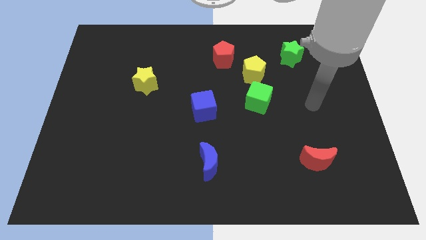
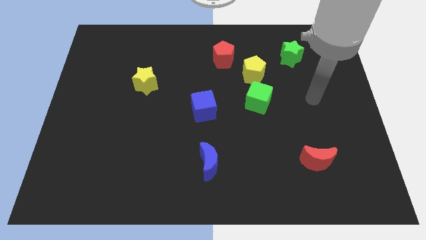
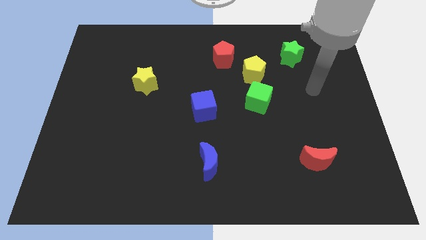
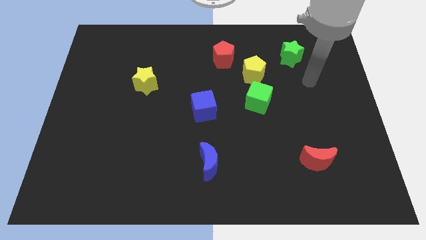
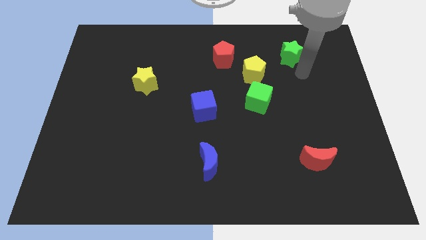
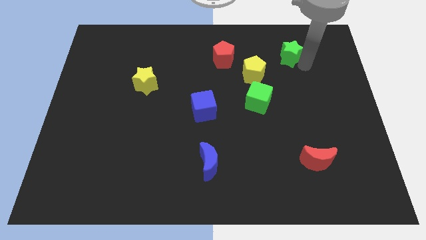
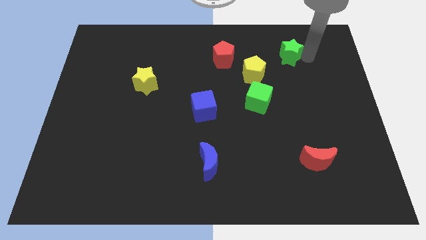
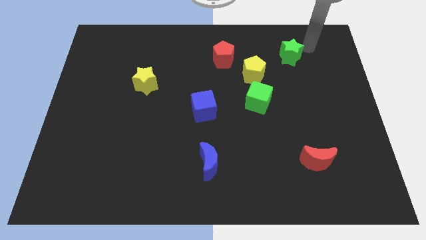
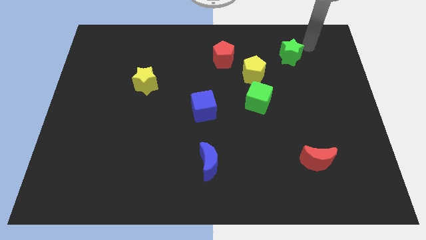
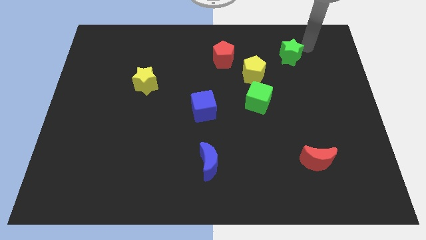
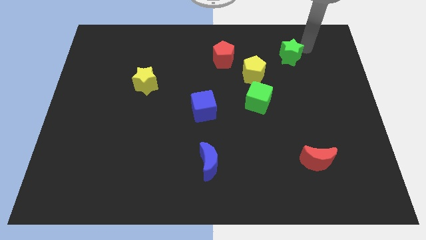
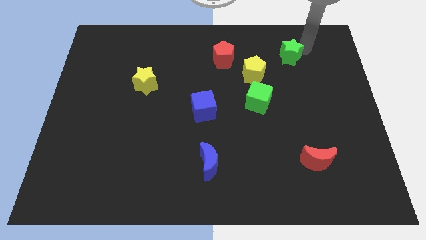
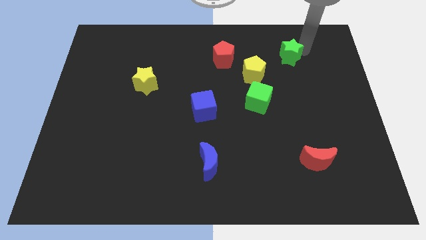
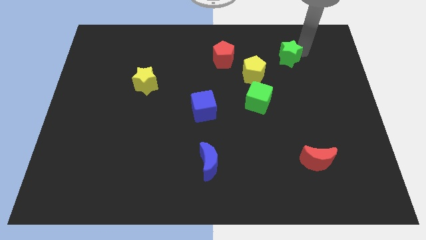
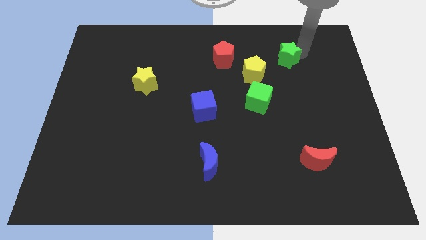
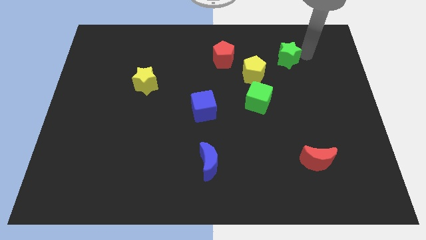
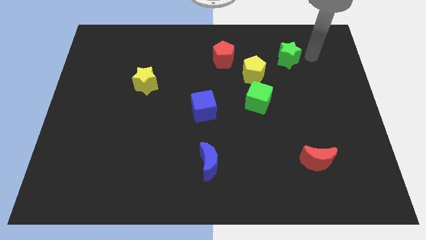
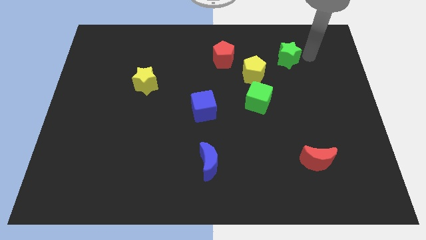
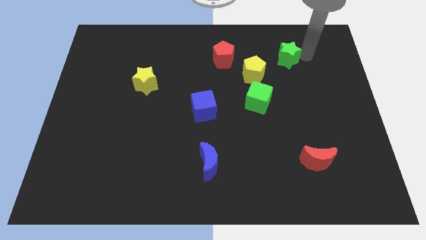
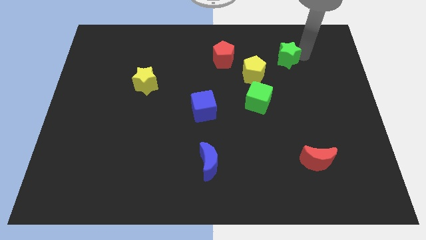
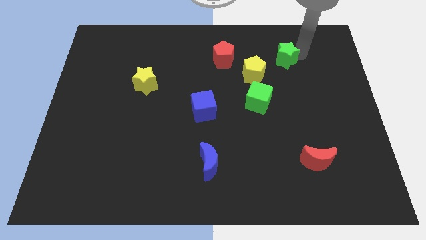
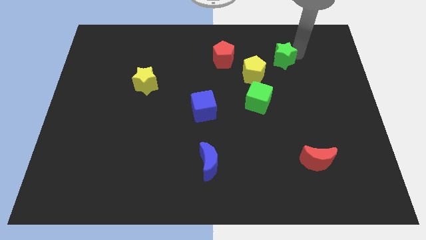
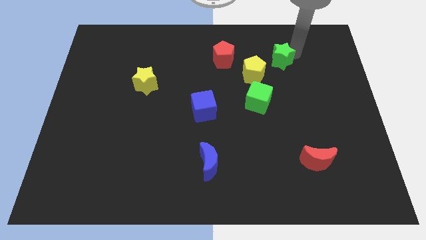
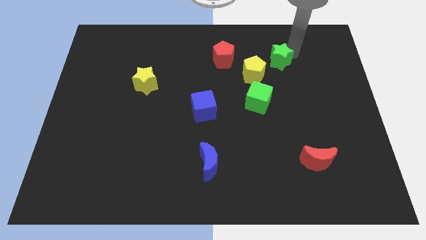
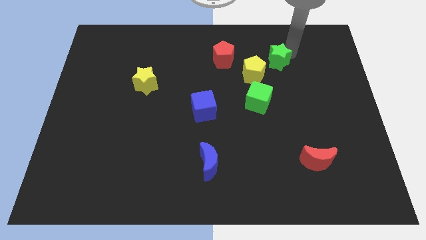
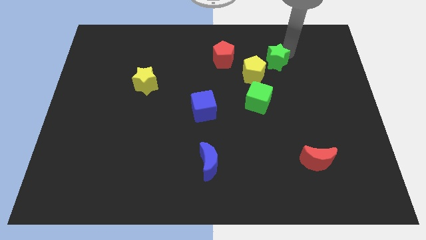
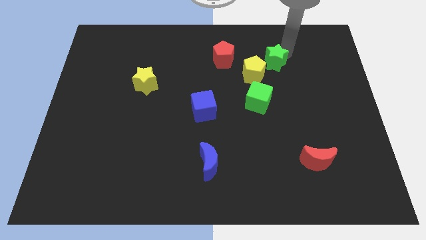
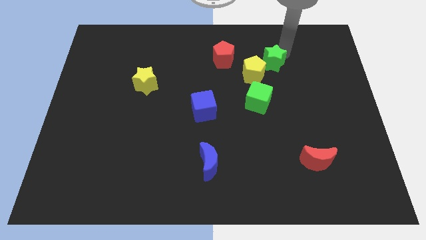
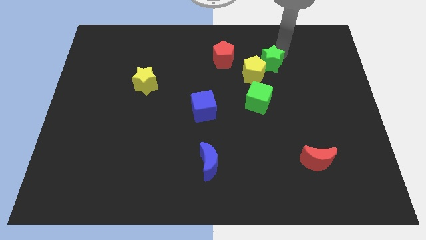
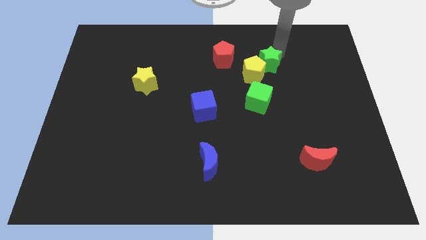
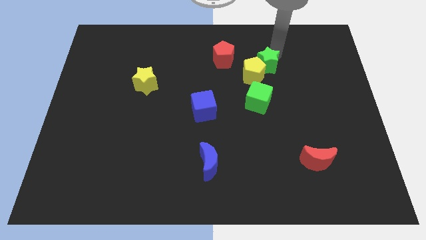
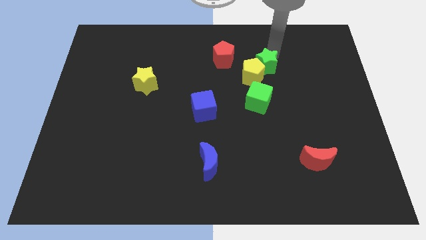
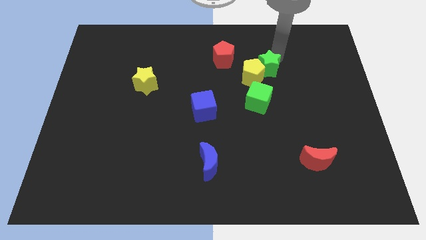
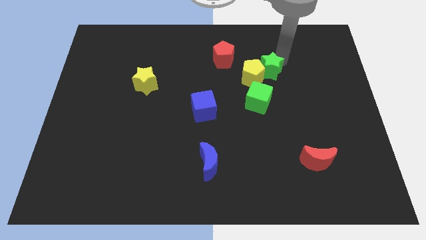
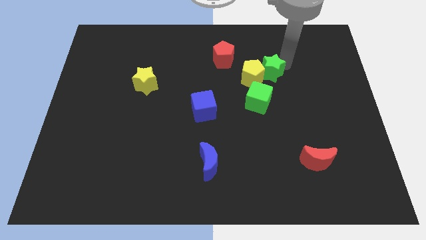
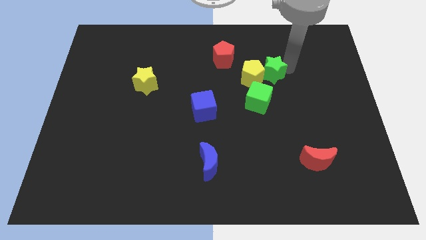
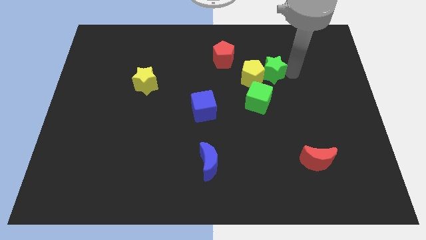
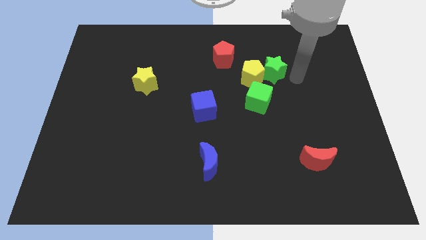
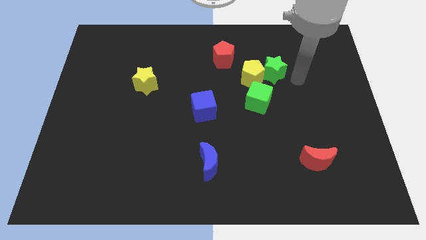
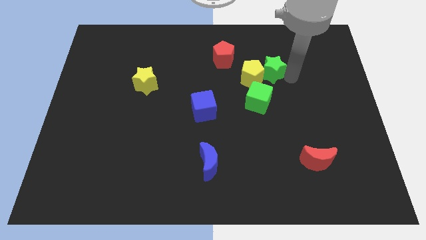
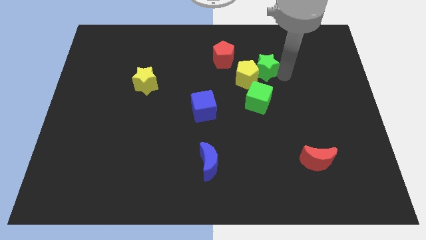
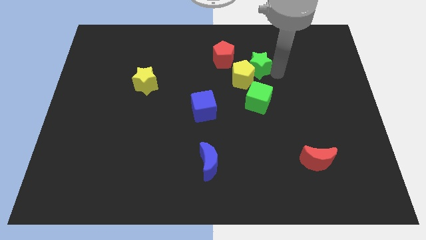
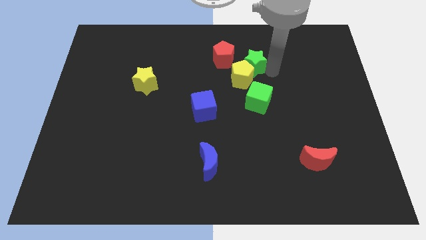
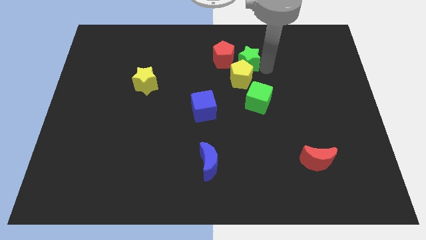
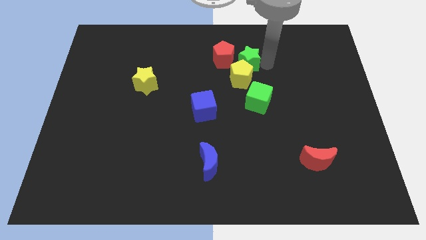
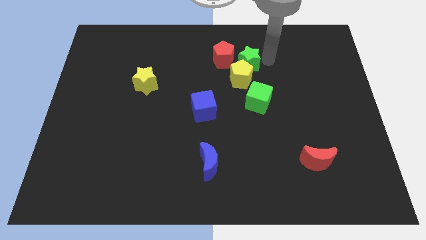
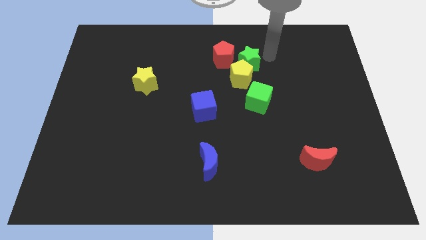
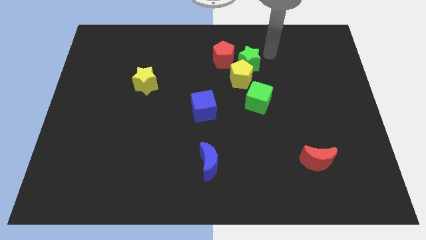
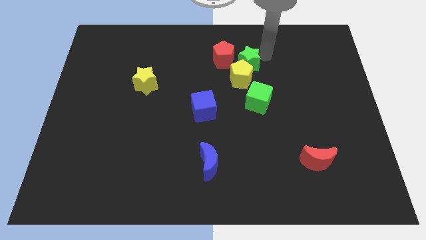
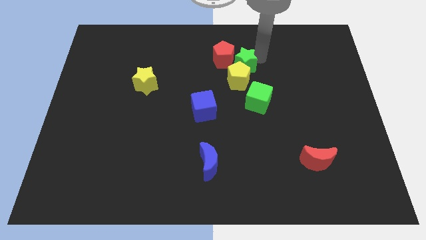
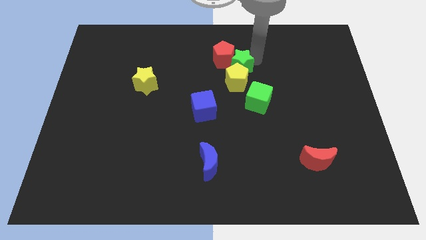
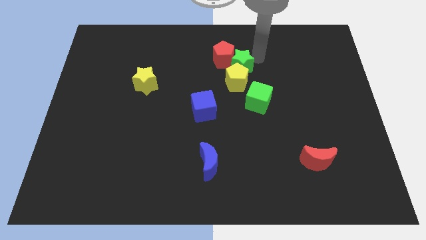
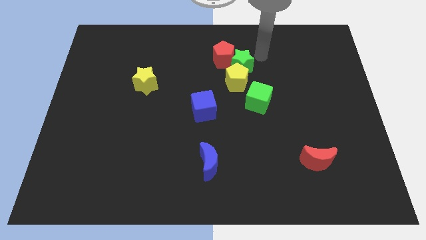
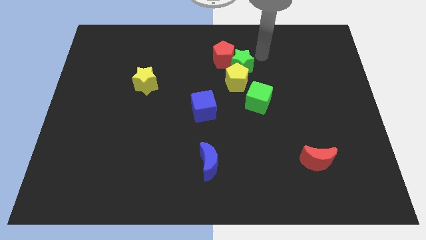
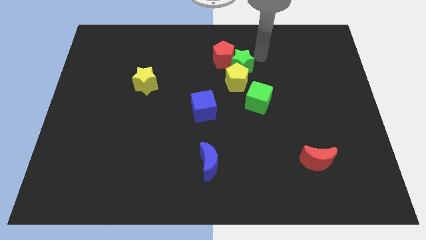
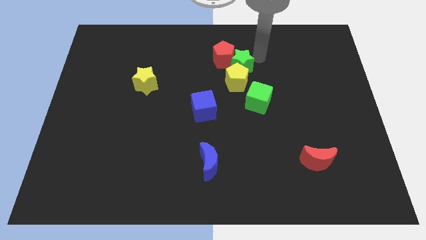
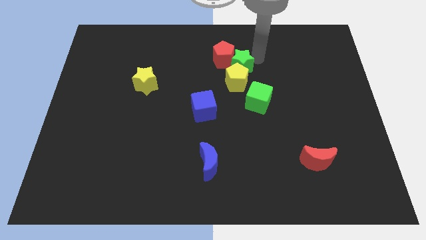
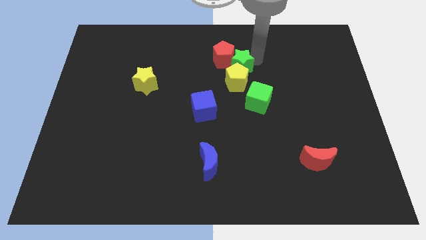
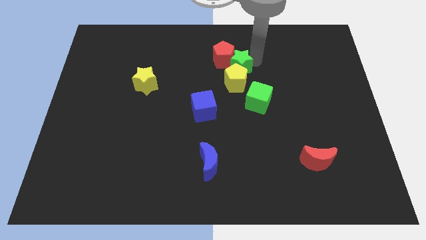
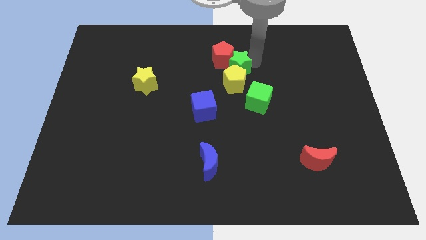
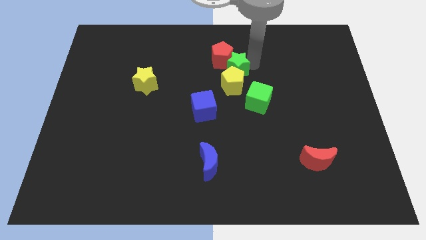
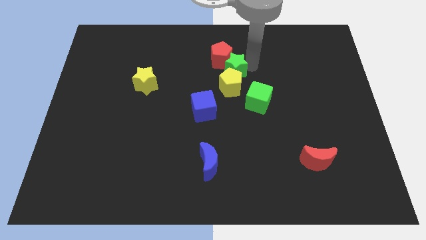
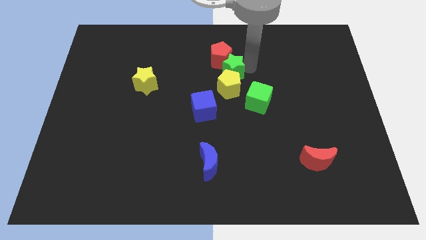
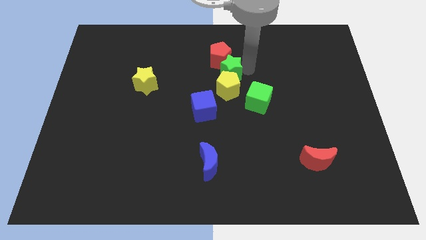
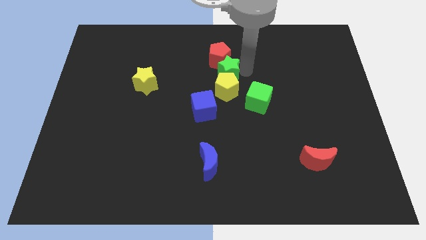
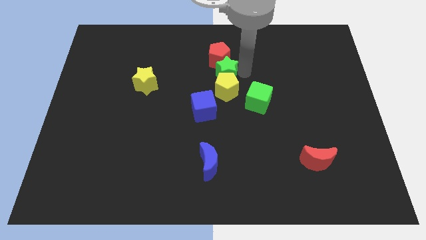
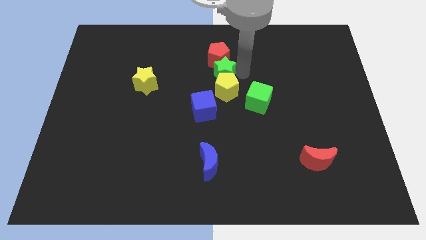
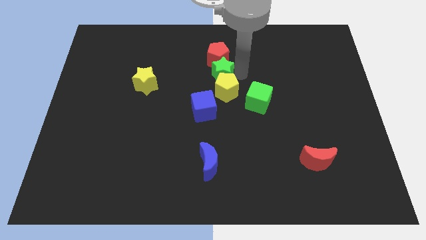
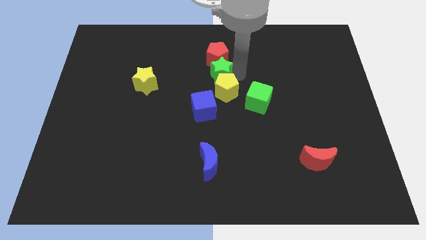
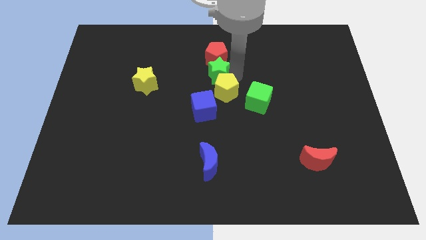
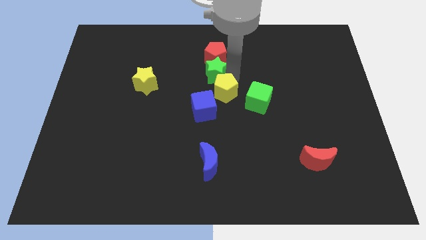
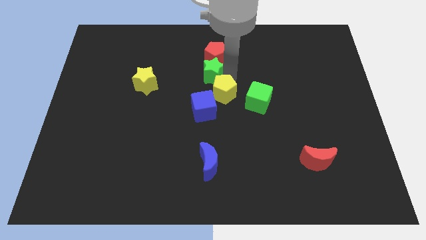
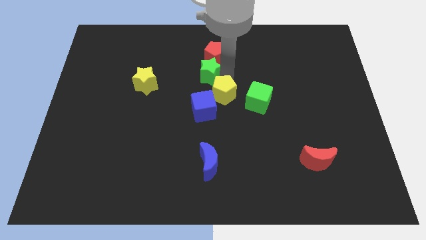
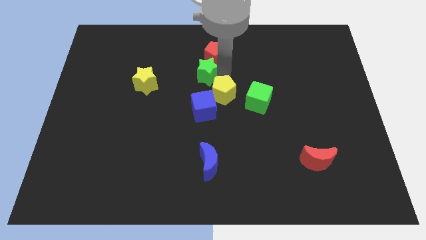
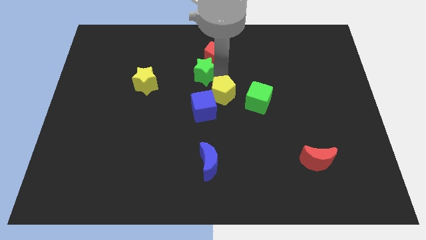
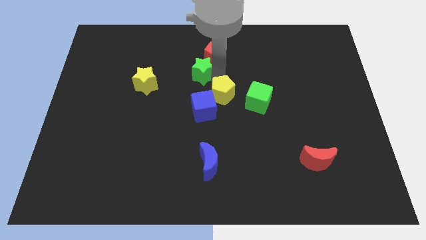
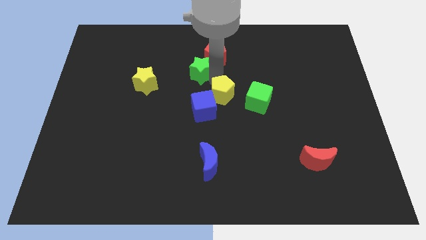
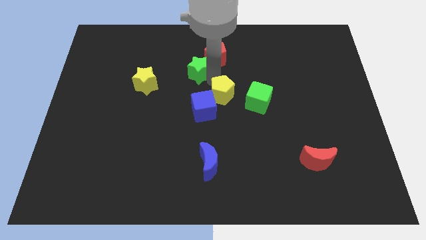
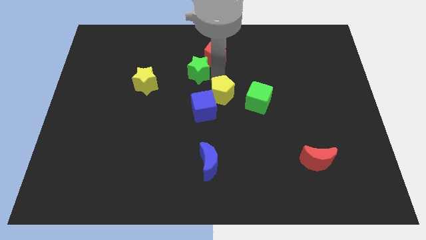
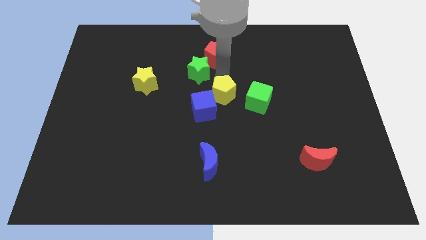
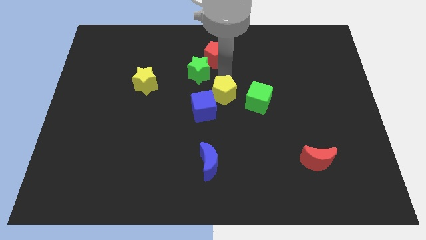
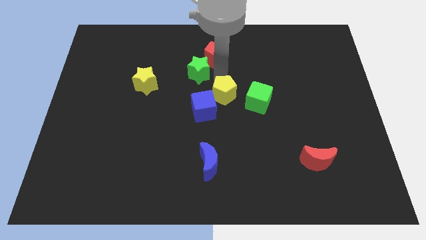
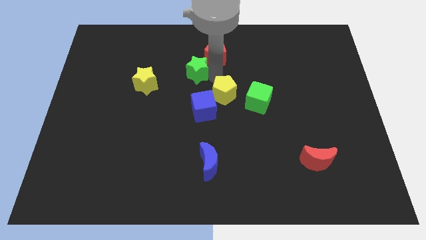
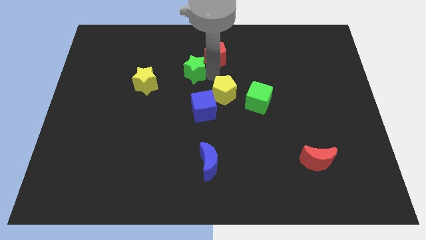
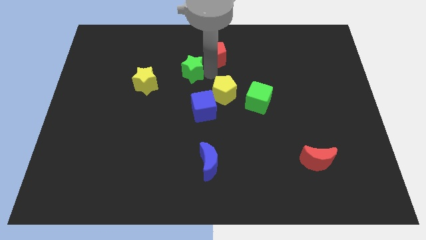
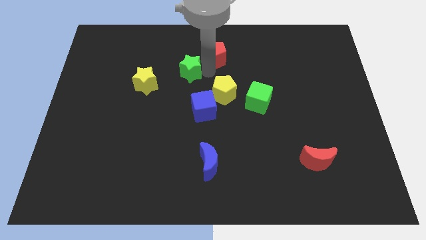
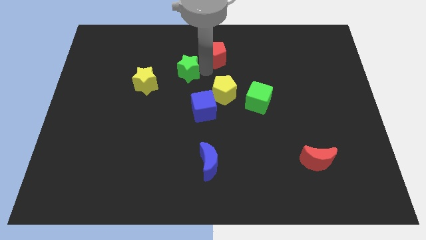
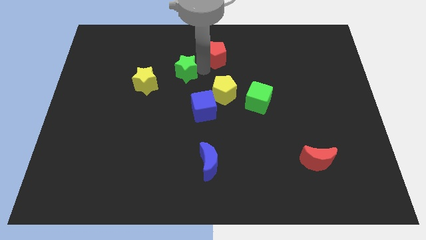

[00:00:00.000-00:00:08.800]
push the green star diagonally up and to the right of the yellow star
